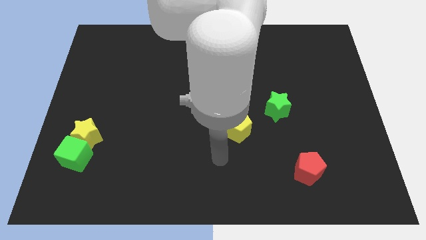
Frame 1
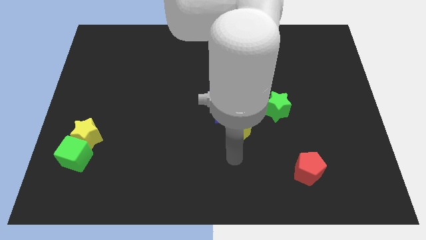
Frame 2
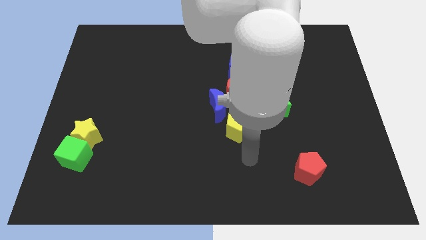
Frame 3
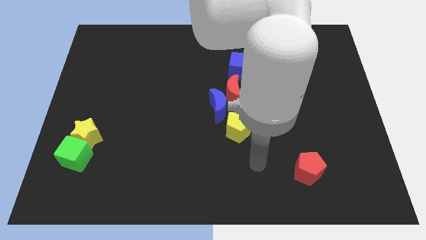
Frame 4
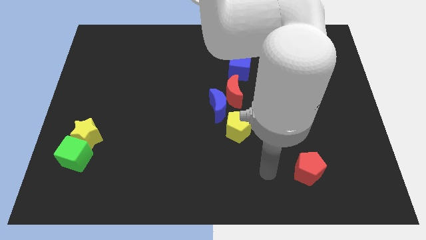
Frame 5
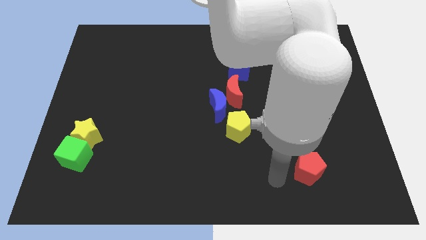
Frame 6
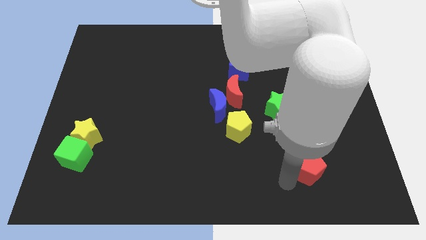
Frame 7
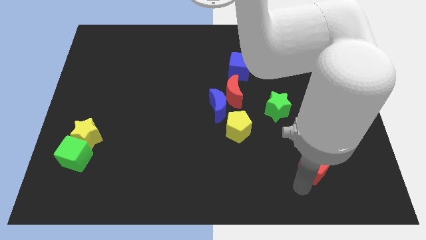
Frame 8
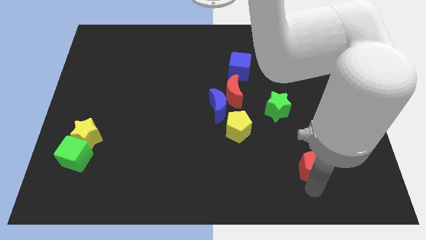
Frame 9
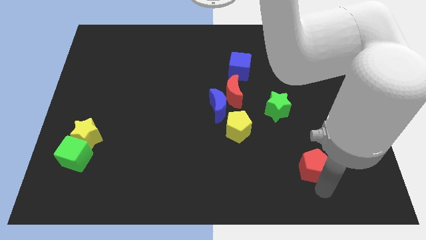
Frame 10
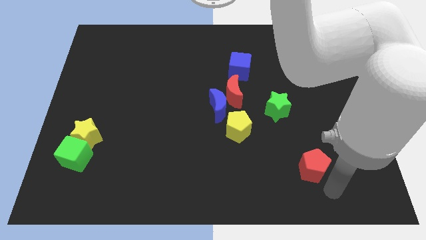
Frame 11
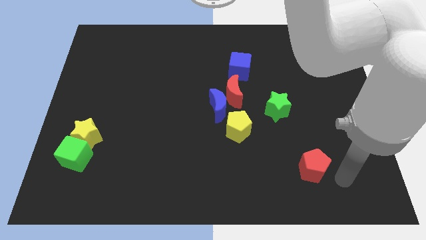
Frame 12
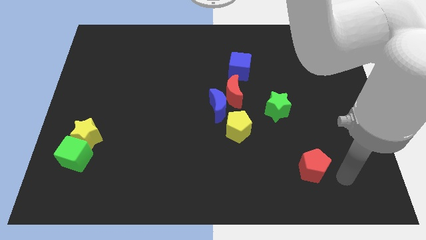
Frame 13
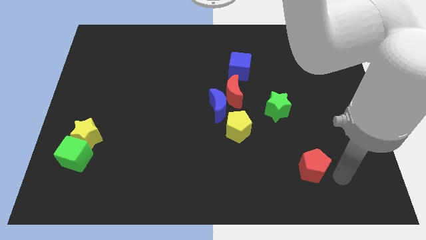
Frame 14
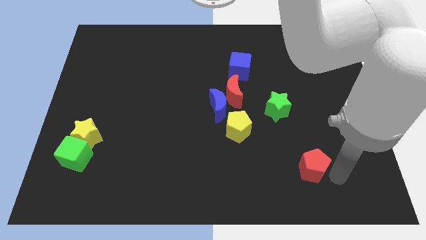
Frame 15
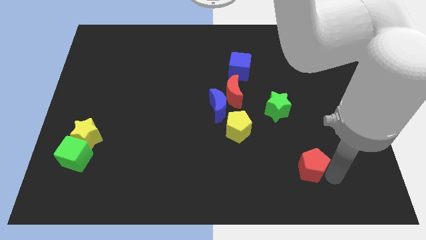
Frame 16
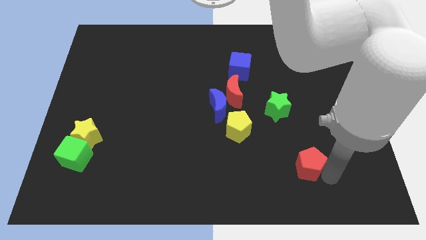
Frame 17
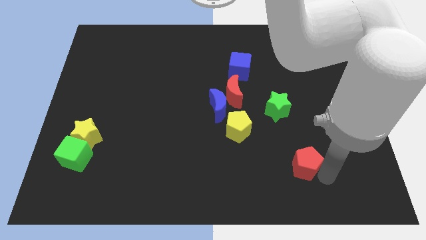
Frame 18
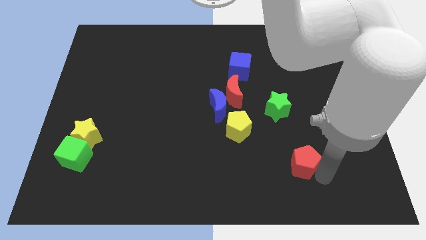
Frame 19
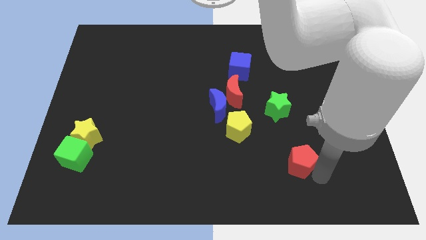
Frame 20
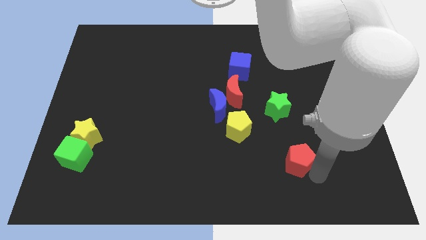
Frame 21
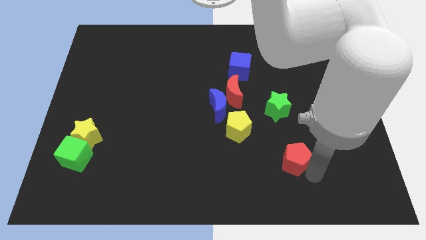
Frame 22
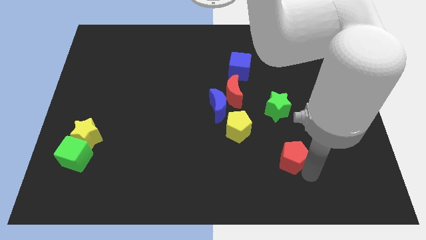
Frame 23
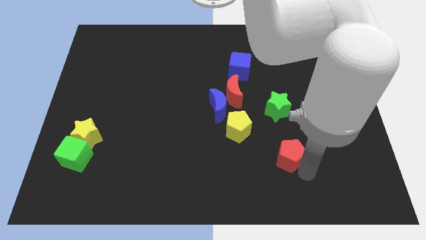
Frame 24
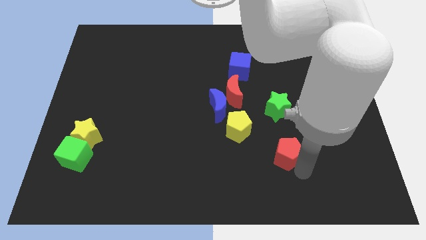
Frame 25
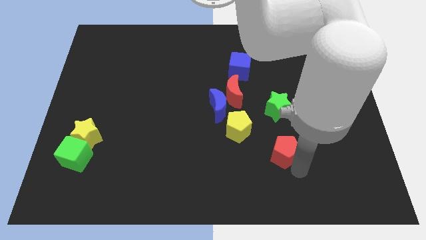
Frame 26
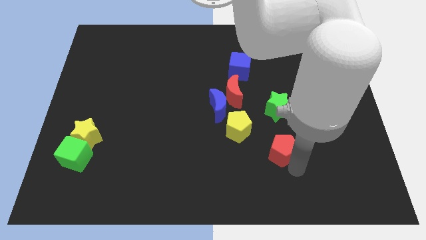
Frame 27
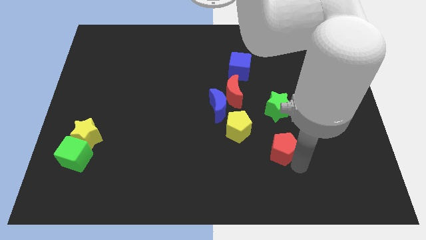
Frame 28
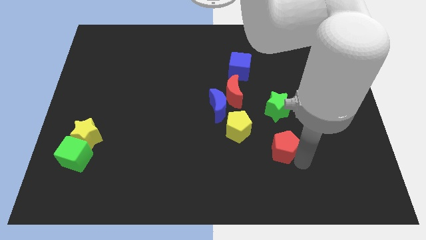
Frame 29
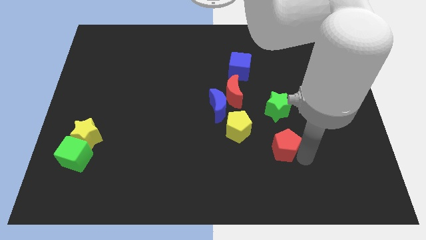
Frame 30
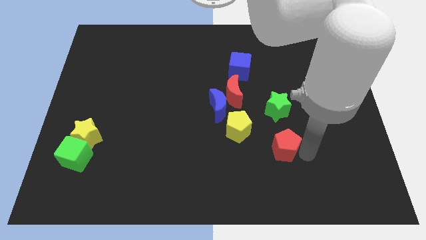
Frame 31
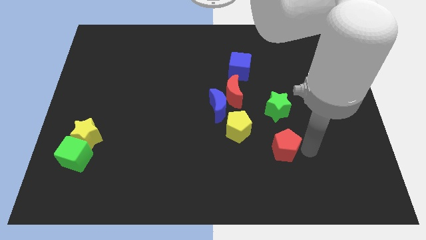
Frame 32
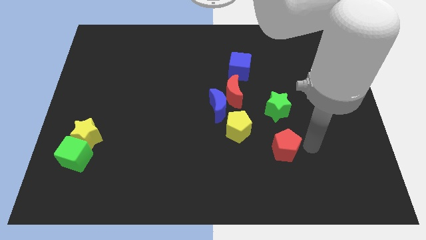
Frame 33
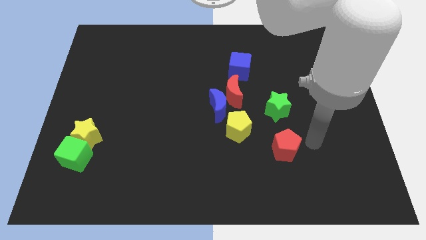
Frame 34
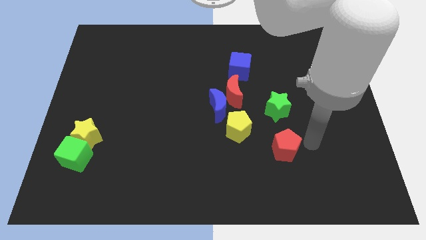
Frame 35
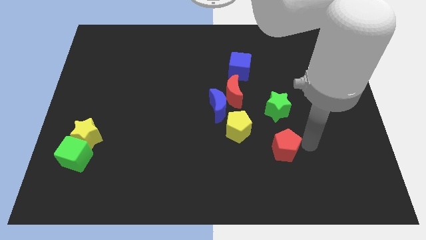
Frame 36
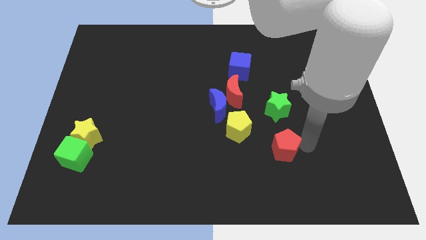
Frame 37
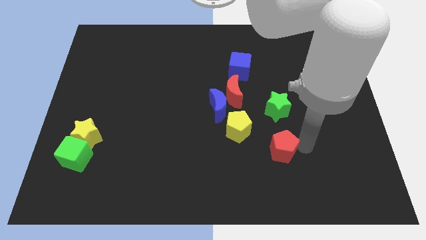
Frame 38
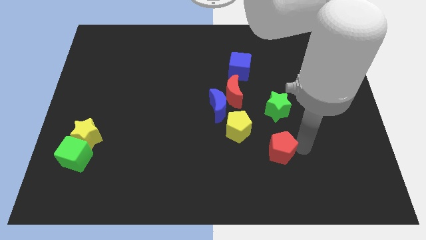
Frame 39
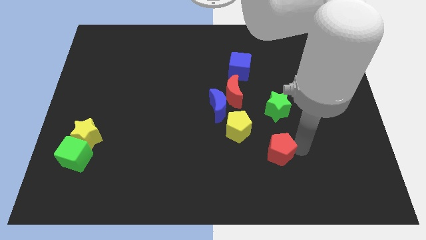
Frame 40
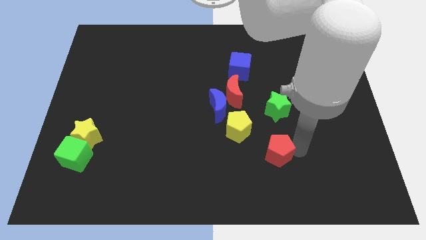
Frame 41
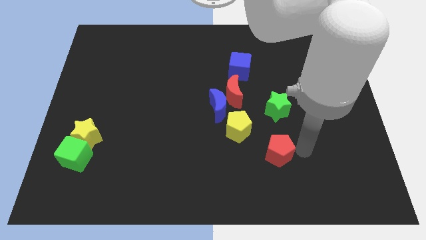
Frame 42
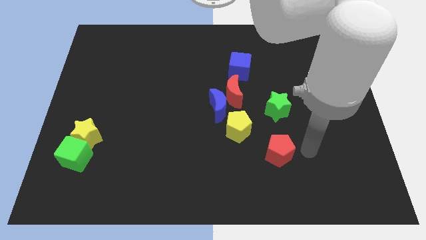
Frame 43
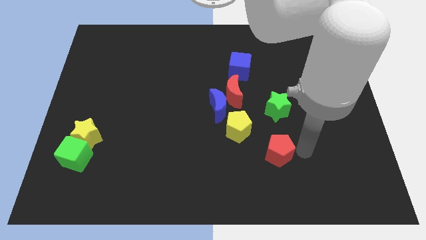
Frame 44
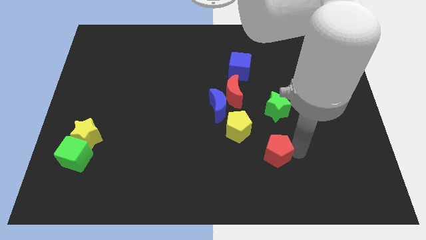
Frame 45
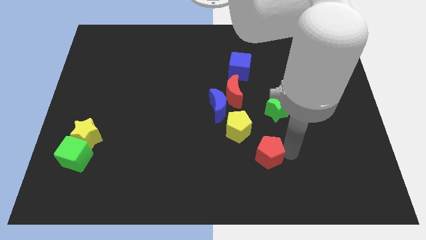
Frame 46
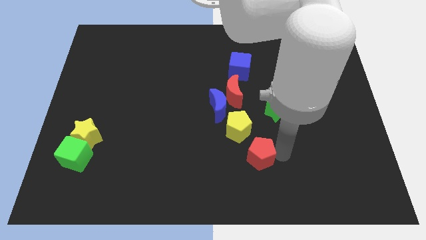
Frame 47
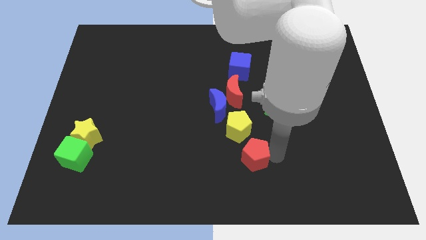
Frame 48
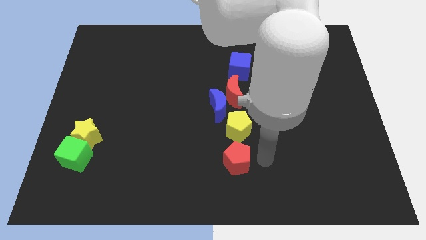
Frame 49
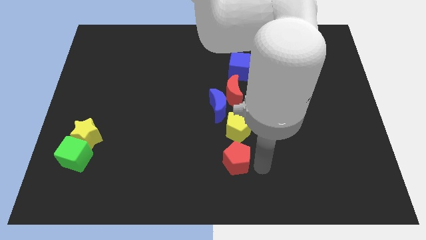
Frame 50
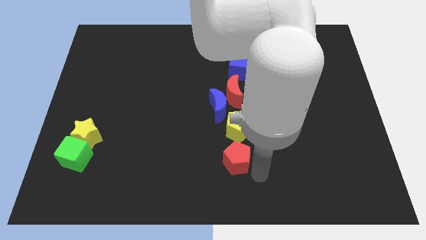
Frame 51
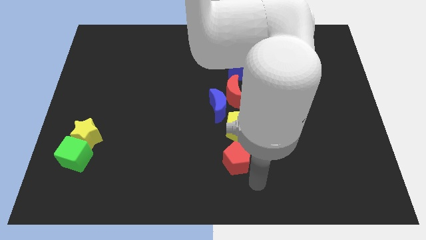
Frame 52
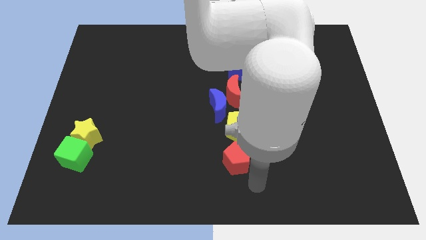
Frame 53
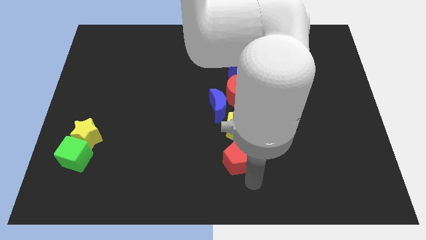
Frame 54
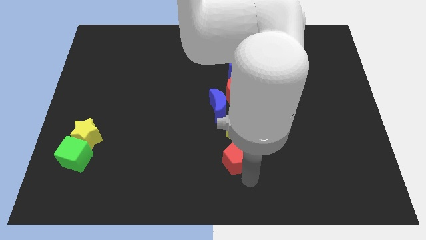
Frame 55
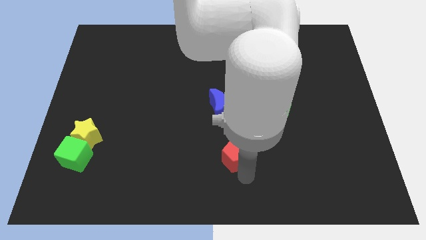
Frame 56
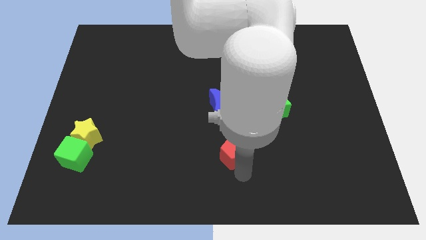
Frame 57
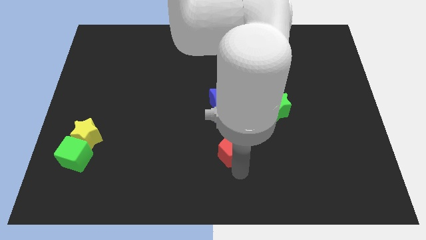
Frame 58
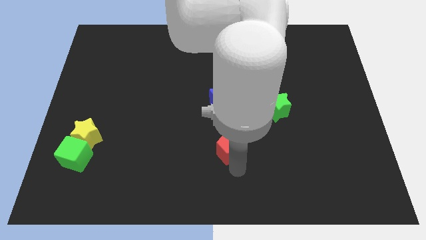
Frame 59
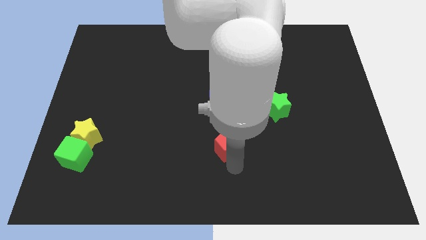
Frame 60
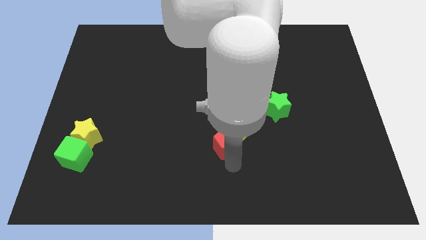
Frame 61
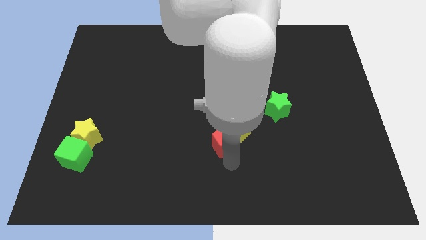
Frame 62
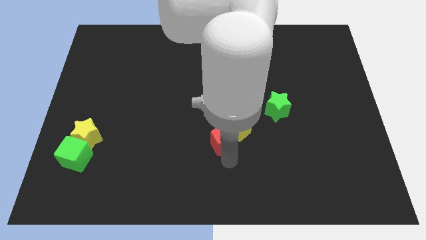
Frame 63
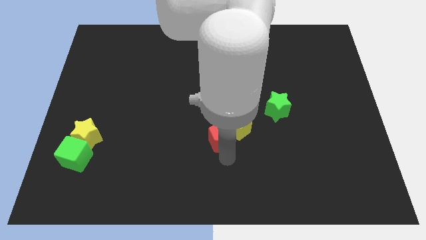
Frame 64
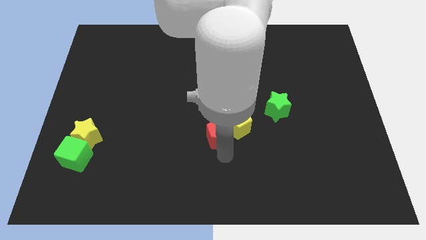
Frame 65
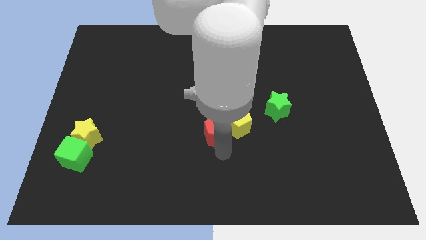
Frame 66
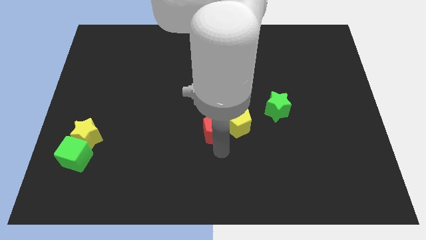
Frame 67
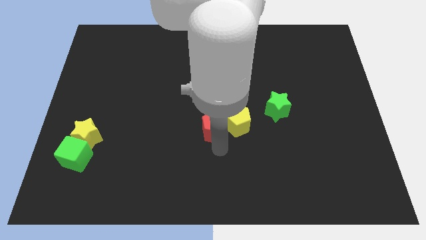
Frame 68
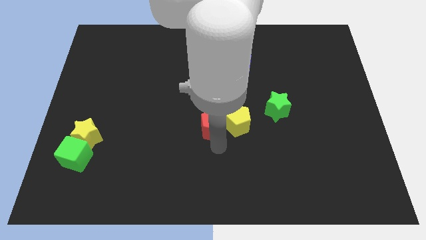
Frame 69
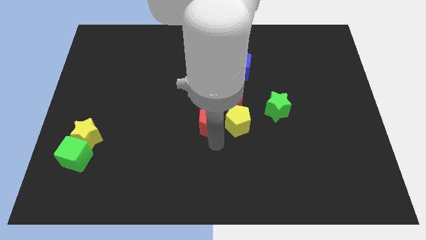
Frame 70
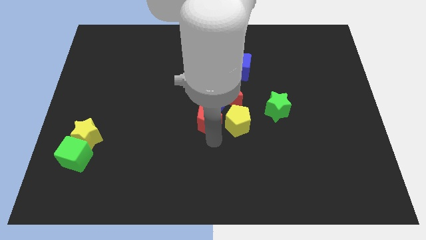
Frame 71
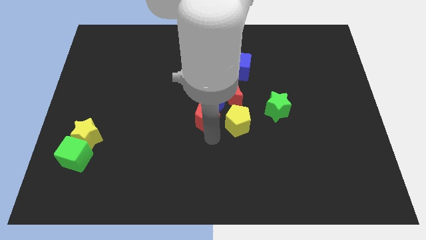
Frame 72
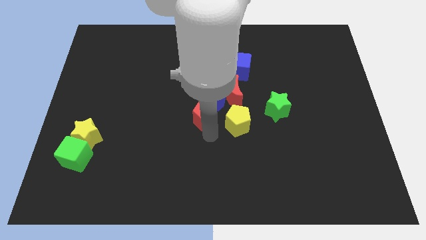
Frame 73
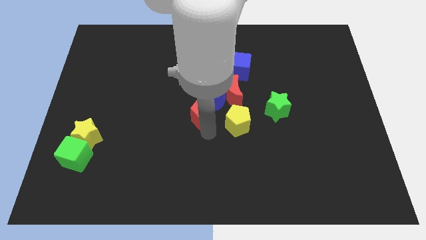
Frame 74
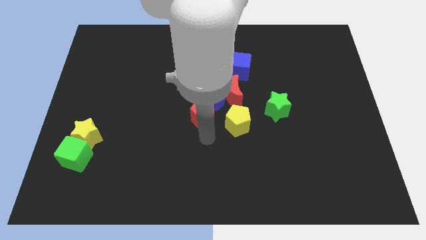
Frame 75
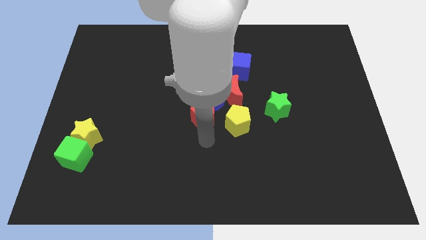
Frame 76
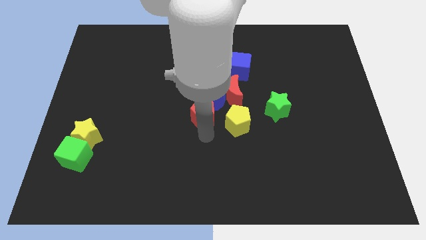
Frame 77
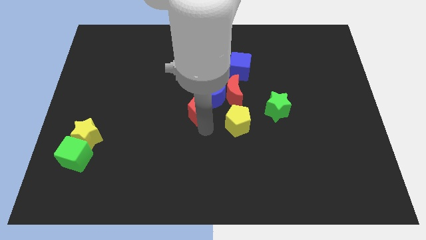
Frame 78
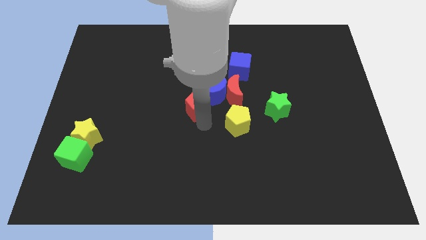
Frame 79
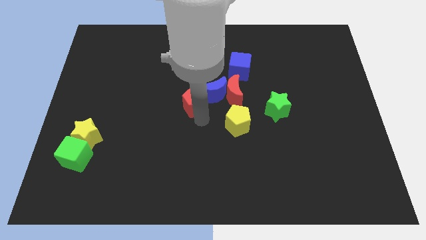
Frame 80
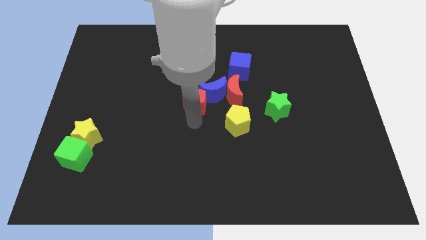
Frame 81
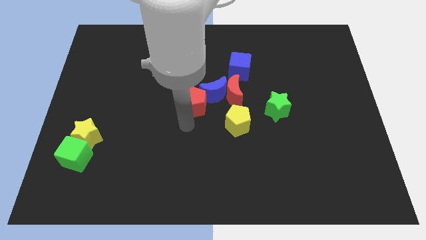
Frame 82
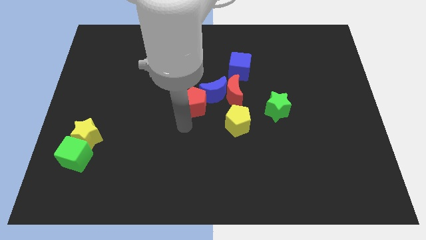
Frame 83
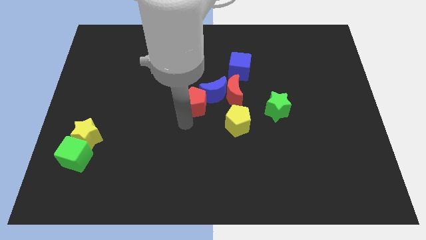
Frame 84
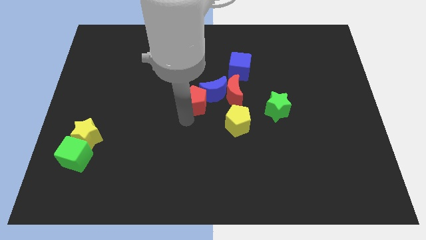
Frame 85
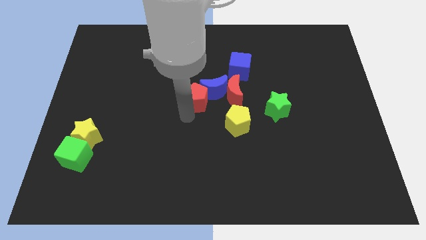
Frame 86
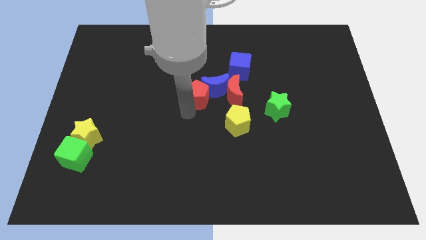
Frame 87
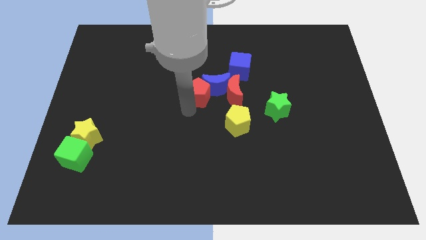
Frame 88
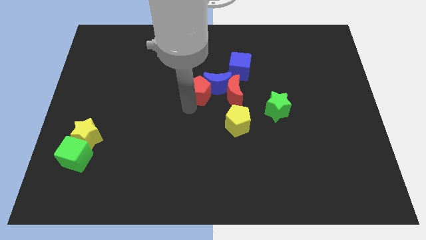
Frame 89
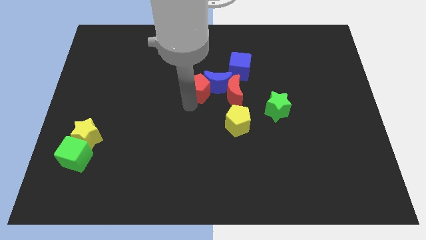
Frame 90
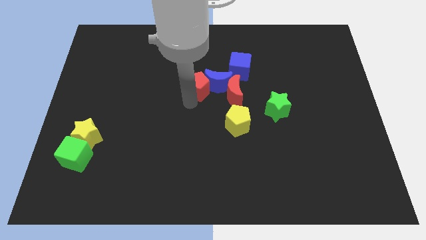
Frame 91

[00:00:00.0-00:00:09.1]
move the red pentagon to the top left of the red moon
